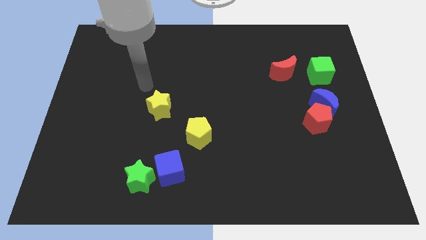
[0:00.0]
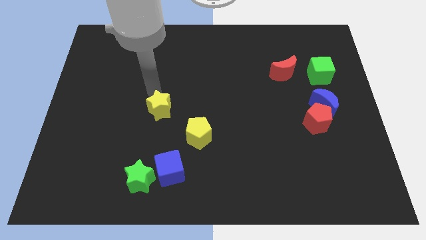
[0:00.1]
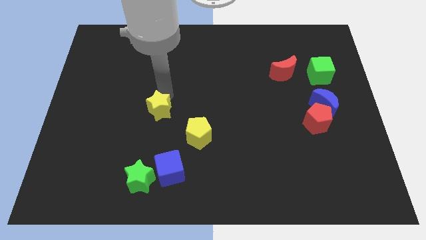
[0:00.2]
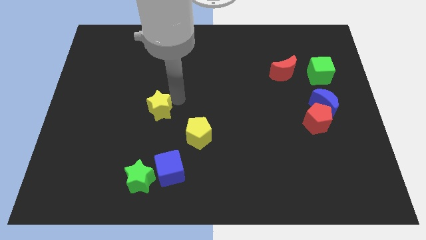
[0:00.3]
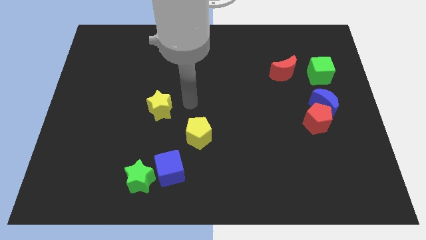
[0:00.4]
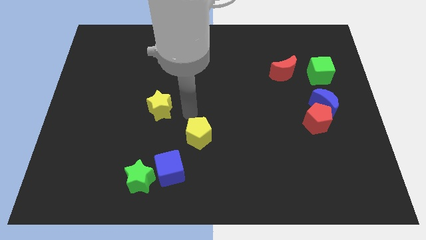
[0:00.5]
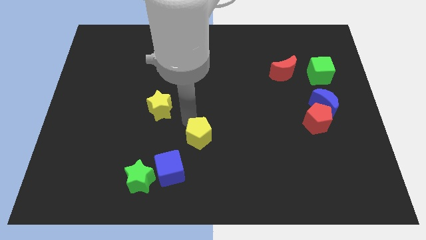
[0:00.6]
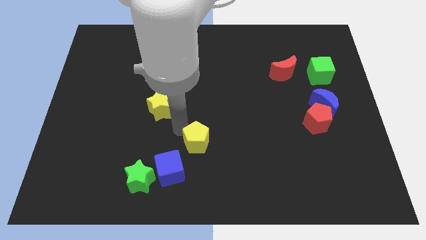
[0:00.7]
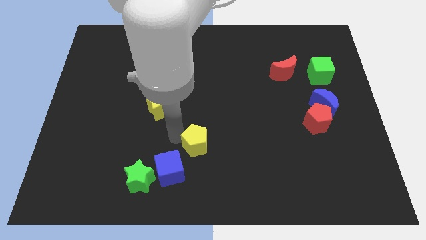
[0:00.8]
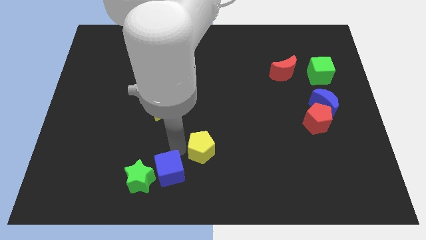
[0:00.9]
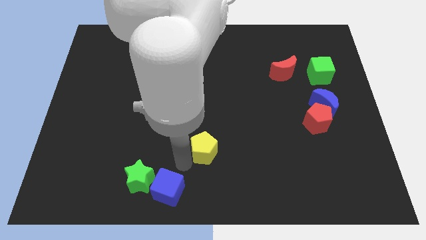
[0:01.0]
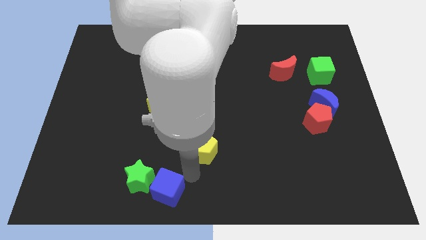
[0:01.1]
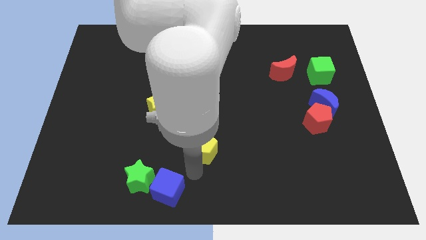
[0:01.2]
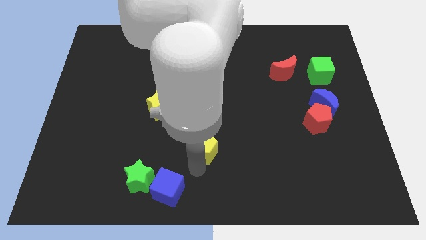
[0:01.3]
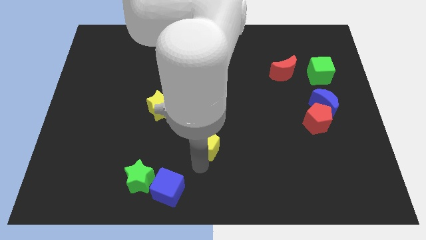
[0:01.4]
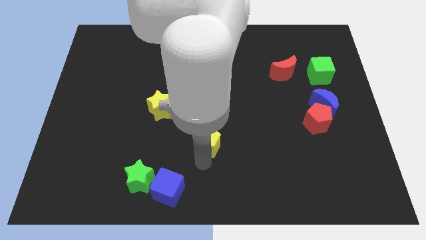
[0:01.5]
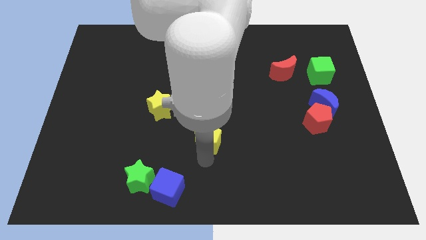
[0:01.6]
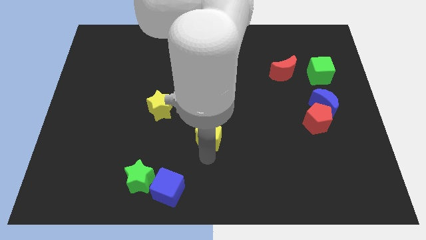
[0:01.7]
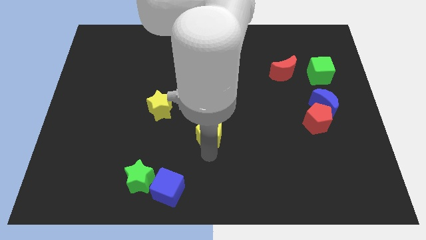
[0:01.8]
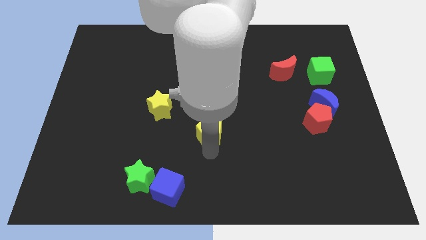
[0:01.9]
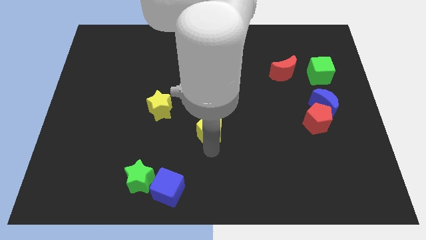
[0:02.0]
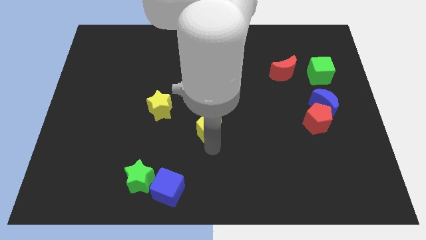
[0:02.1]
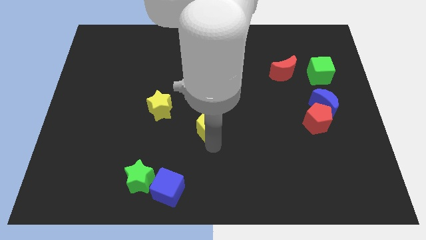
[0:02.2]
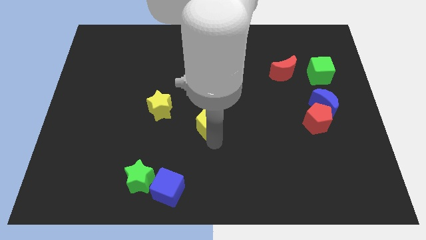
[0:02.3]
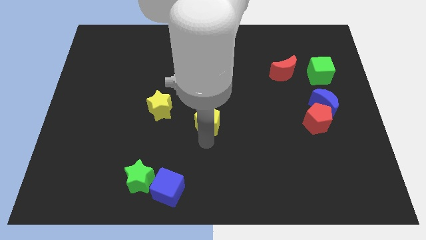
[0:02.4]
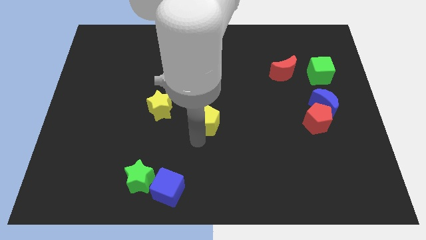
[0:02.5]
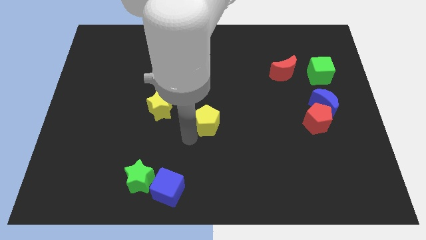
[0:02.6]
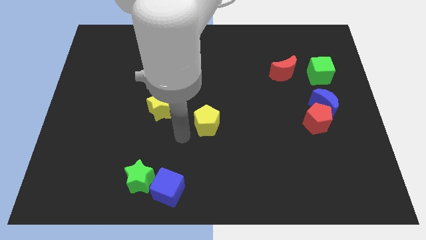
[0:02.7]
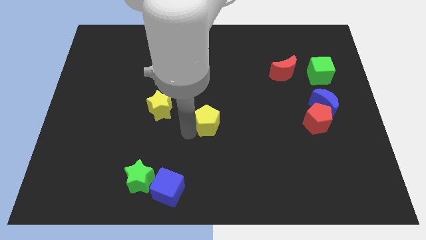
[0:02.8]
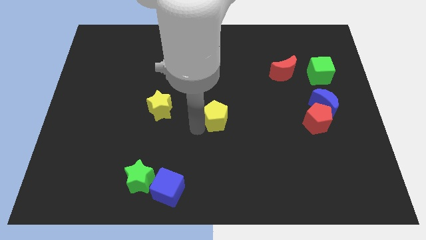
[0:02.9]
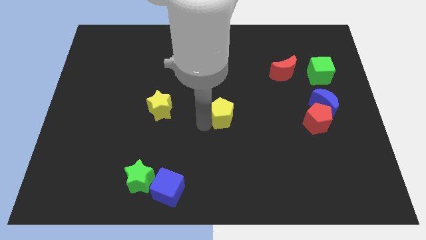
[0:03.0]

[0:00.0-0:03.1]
slide the yellow pentagon slightly diagonally up and right

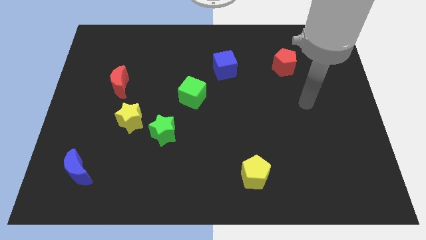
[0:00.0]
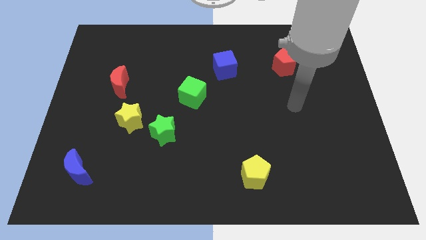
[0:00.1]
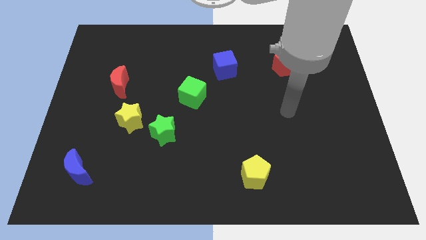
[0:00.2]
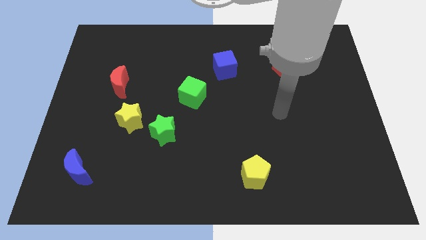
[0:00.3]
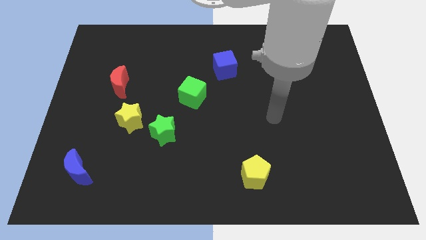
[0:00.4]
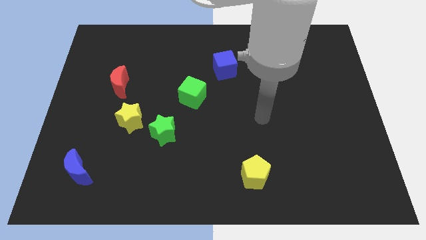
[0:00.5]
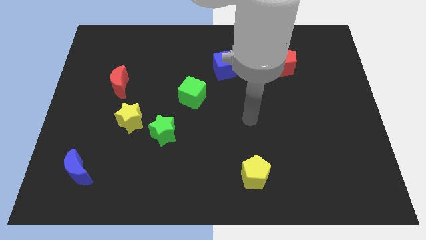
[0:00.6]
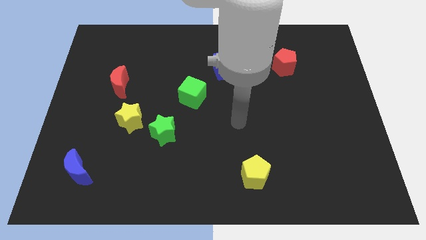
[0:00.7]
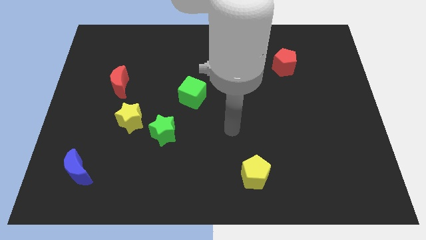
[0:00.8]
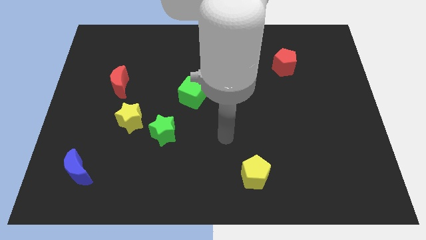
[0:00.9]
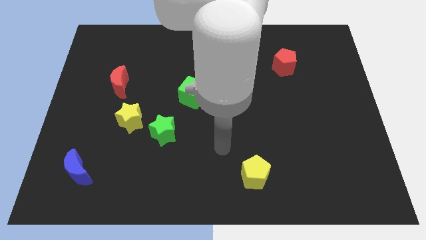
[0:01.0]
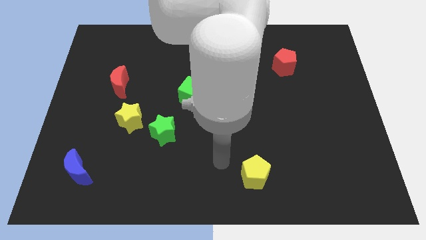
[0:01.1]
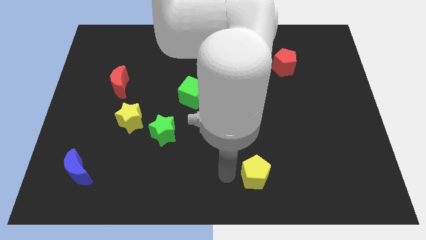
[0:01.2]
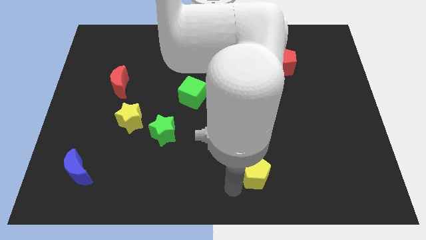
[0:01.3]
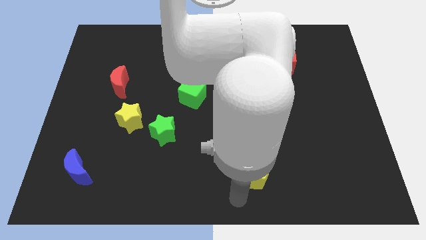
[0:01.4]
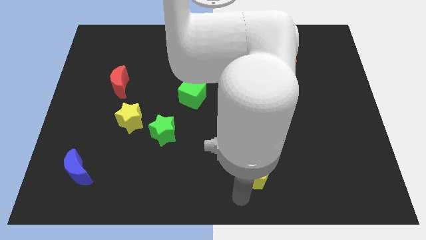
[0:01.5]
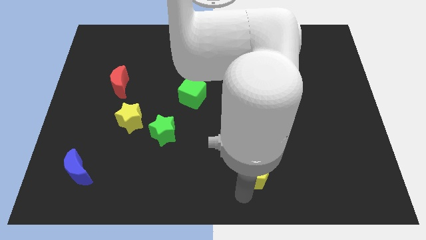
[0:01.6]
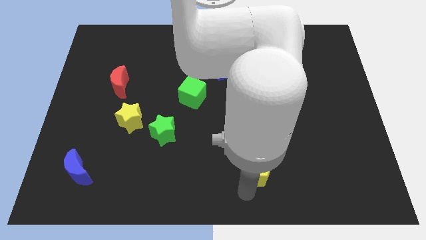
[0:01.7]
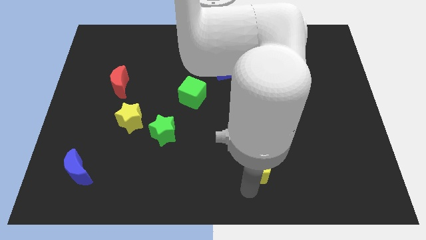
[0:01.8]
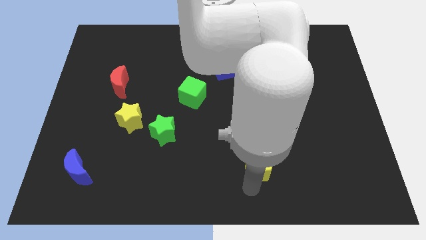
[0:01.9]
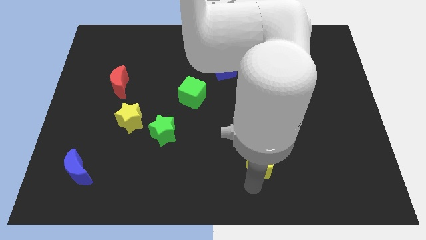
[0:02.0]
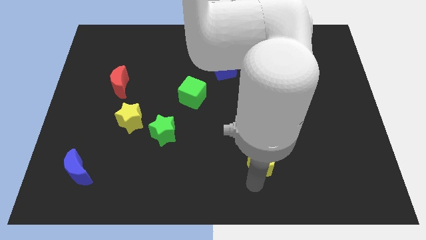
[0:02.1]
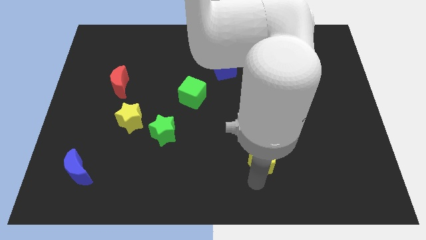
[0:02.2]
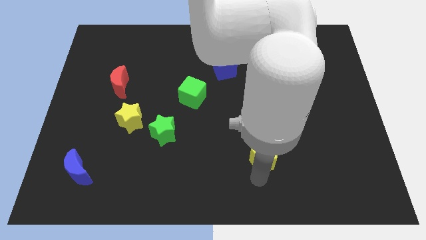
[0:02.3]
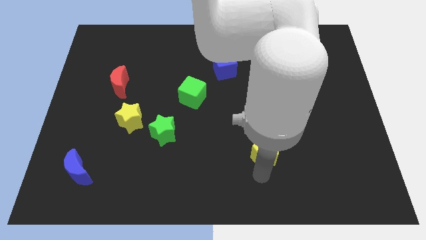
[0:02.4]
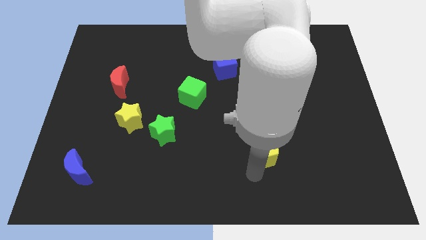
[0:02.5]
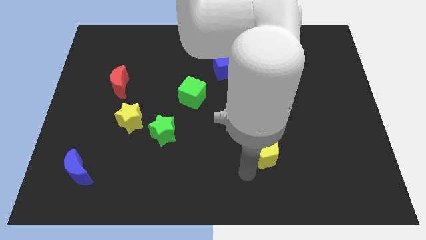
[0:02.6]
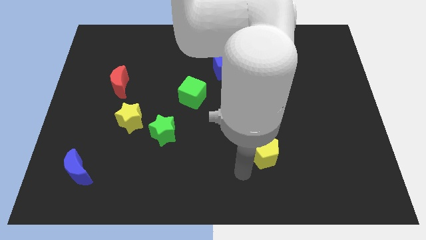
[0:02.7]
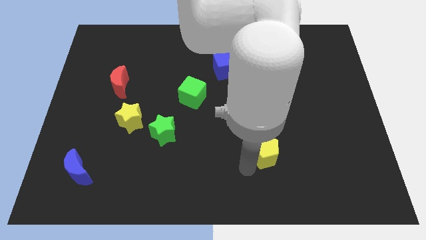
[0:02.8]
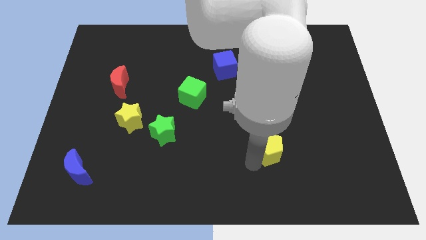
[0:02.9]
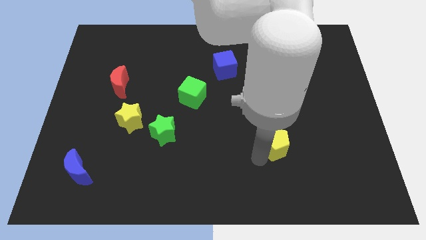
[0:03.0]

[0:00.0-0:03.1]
slide the yellow pentagon up and right diagonally somewhat

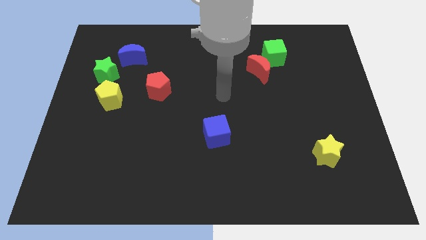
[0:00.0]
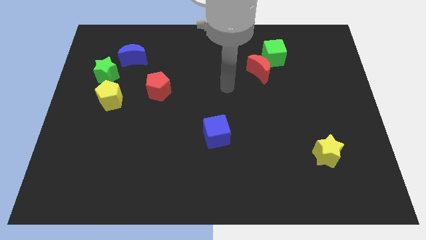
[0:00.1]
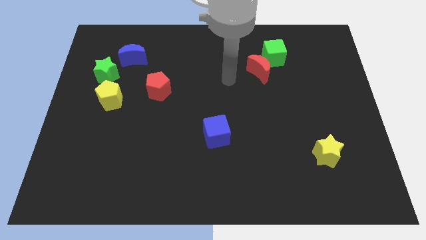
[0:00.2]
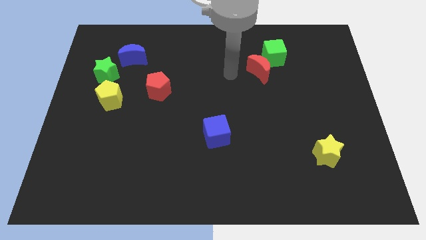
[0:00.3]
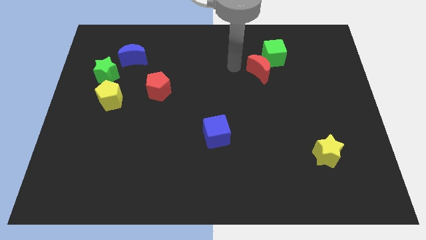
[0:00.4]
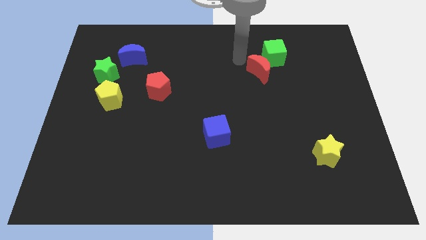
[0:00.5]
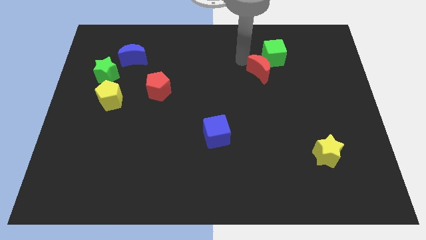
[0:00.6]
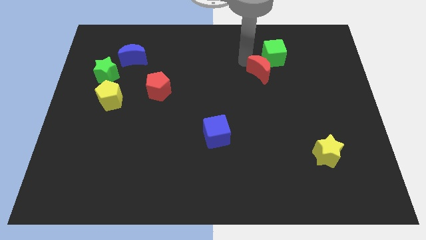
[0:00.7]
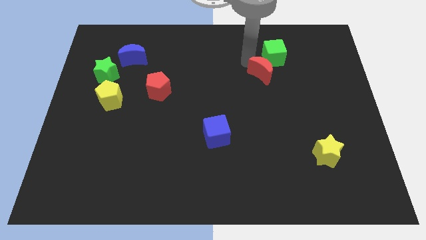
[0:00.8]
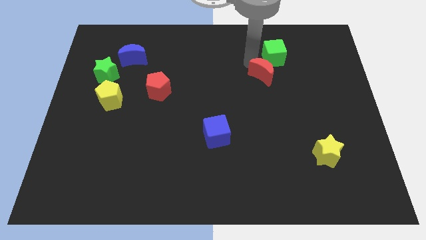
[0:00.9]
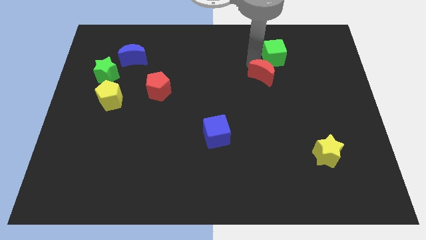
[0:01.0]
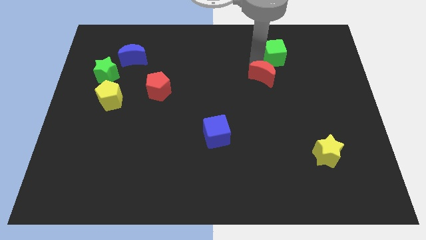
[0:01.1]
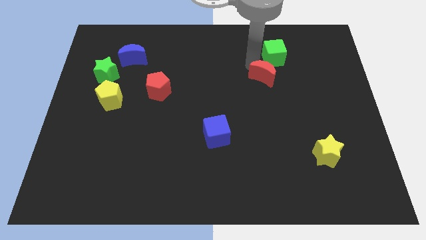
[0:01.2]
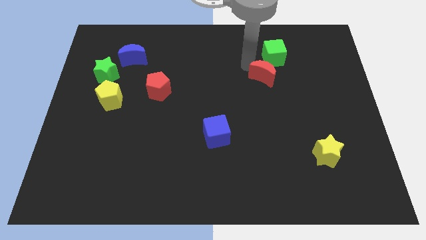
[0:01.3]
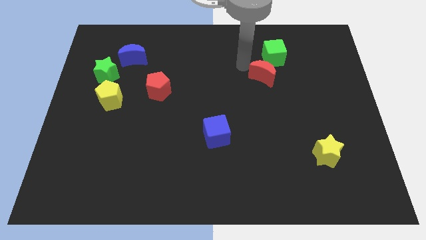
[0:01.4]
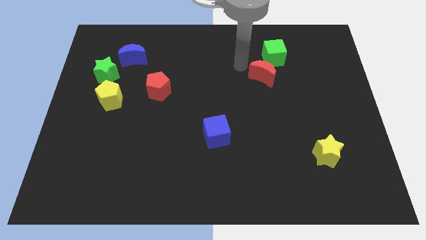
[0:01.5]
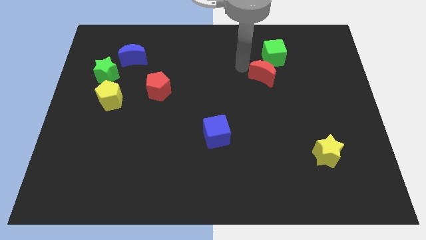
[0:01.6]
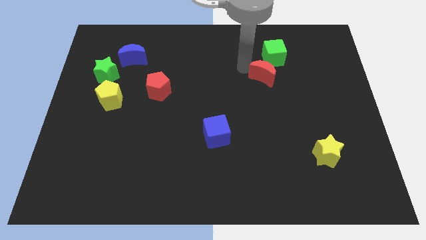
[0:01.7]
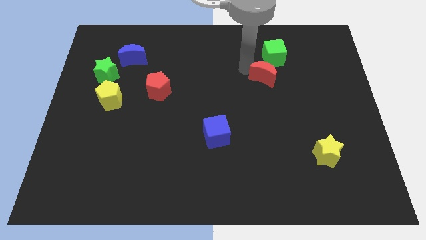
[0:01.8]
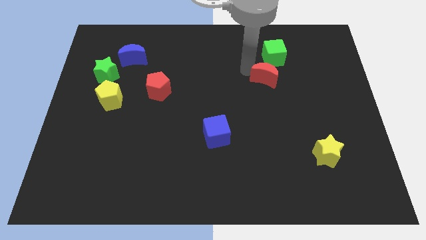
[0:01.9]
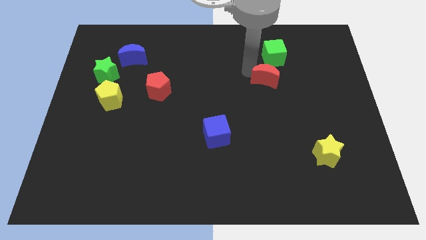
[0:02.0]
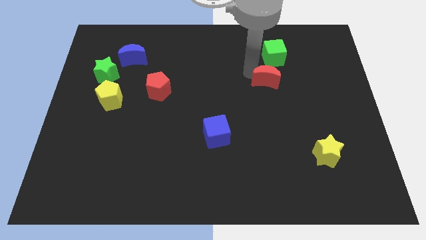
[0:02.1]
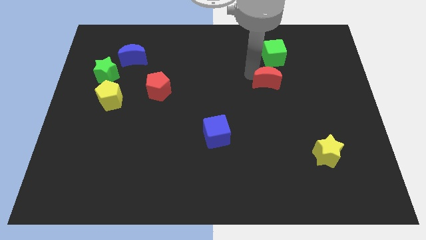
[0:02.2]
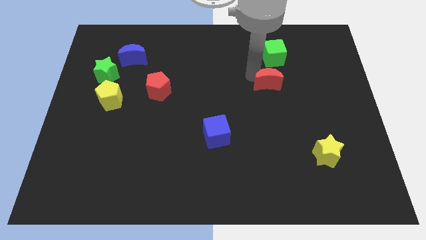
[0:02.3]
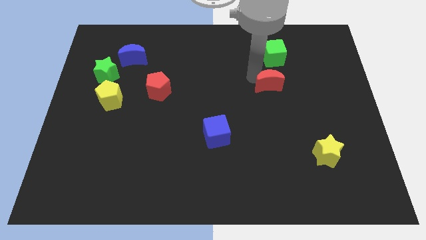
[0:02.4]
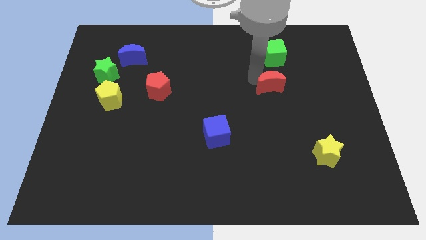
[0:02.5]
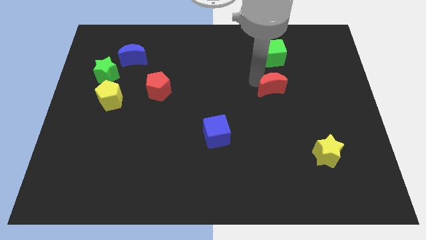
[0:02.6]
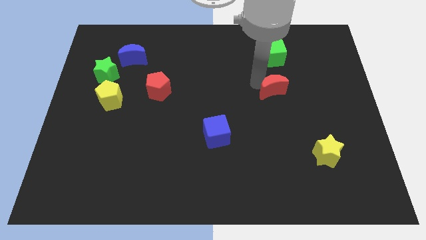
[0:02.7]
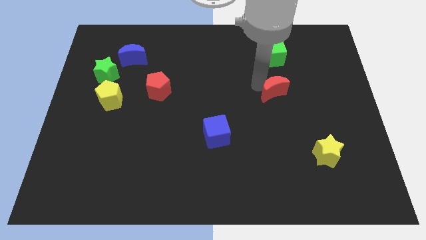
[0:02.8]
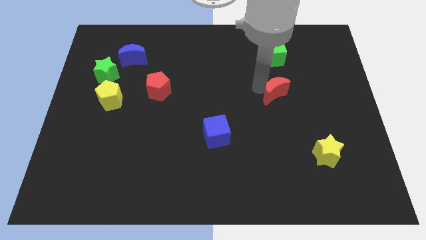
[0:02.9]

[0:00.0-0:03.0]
slightly slide the red moon down and to the right
